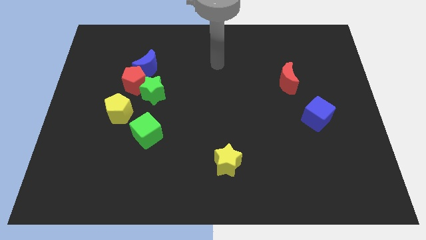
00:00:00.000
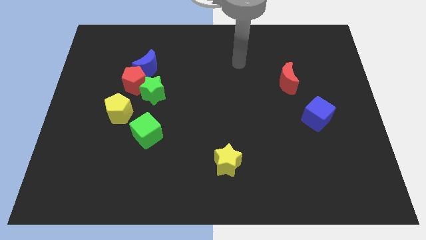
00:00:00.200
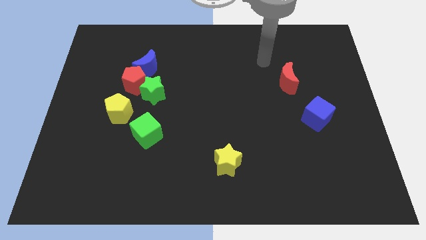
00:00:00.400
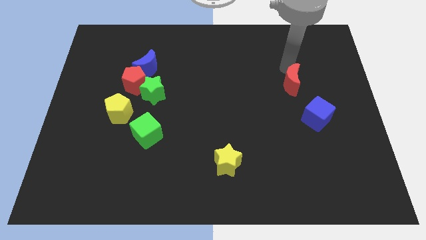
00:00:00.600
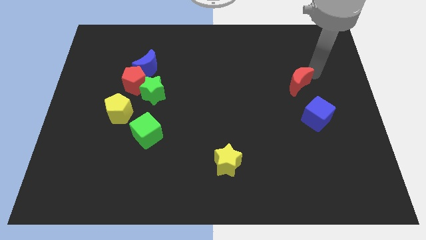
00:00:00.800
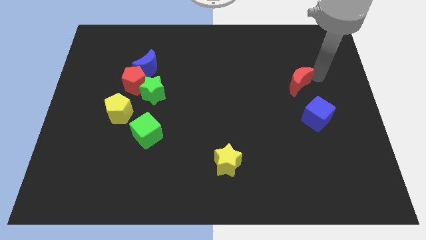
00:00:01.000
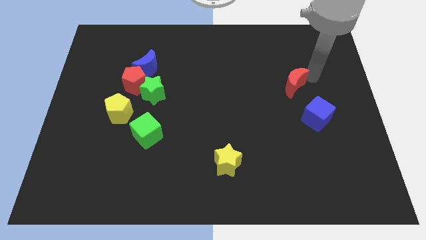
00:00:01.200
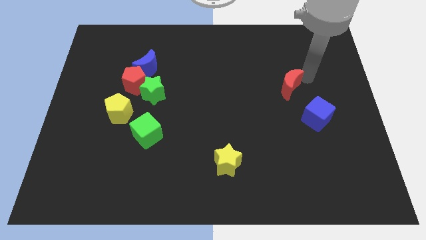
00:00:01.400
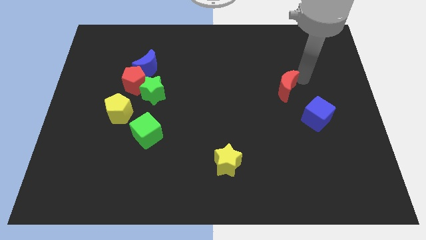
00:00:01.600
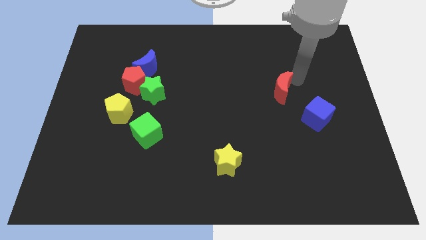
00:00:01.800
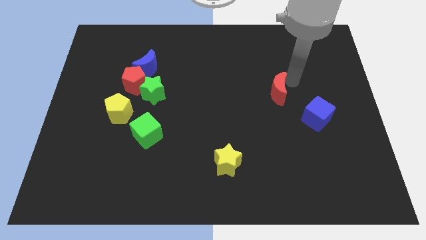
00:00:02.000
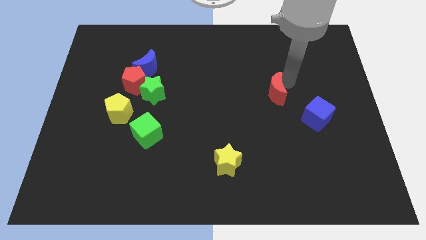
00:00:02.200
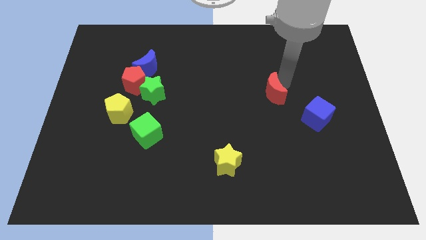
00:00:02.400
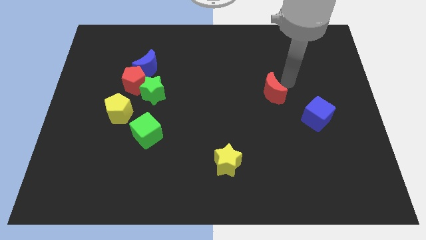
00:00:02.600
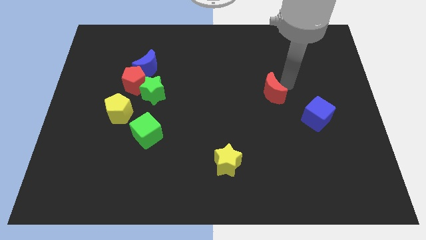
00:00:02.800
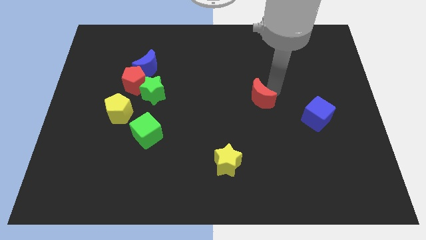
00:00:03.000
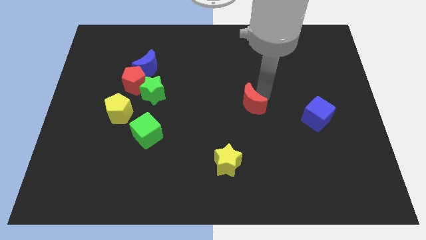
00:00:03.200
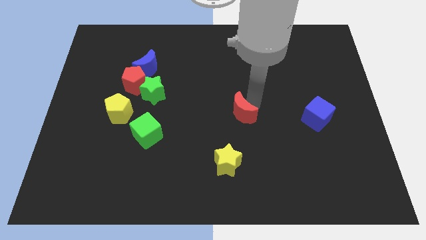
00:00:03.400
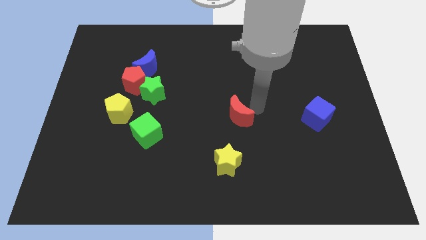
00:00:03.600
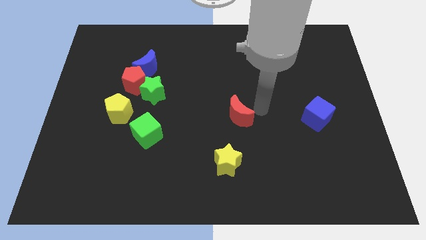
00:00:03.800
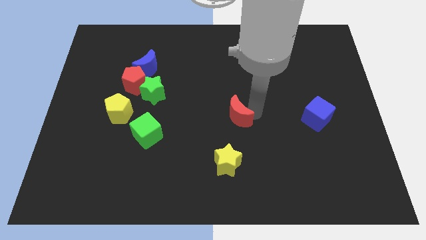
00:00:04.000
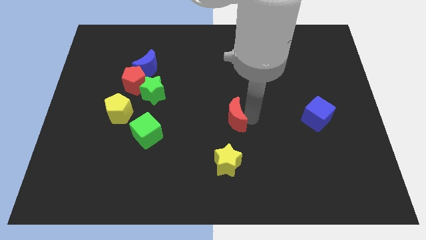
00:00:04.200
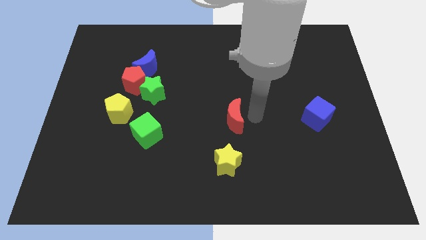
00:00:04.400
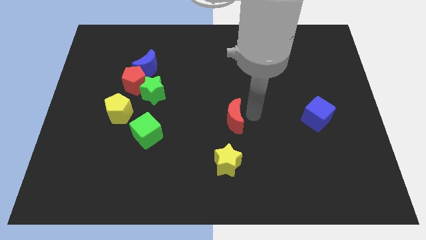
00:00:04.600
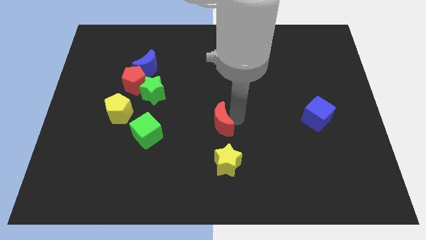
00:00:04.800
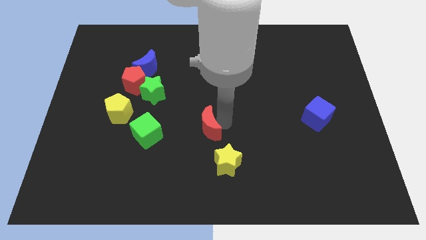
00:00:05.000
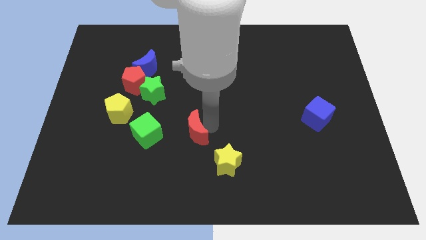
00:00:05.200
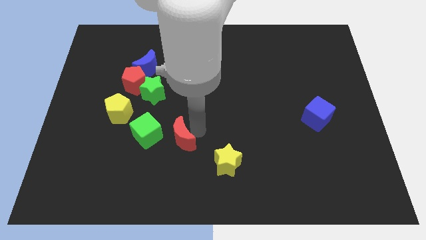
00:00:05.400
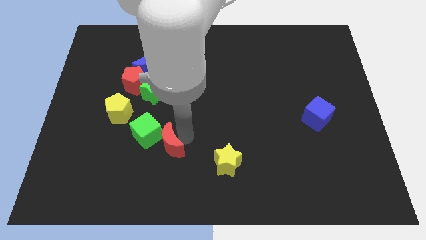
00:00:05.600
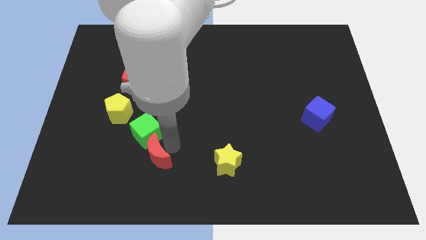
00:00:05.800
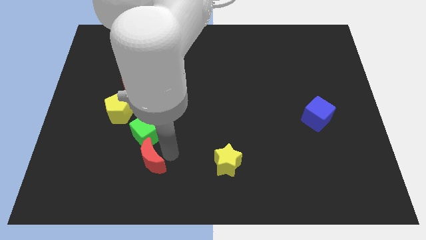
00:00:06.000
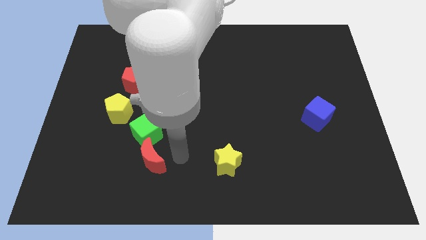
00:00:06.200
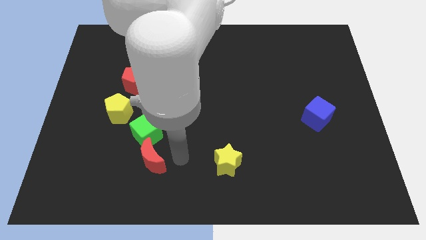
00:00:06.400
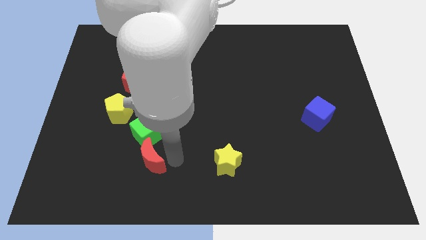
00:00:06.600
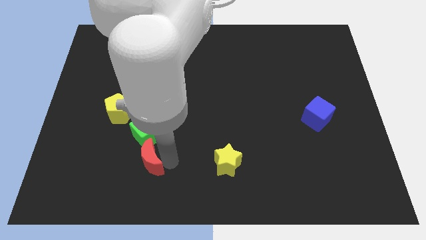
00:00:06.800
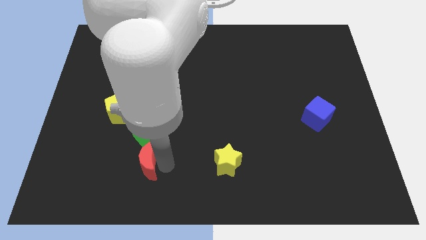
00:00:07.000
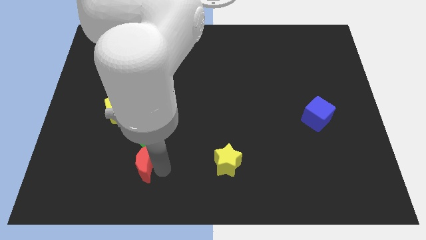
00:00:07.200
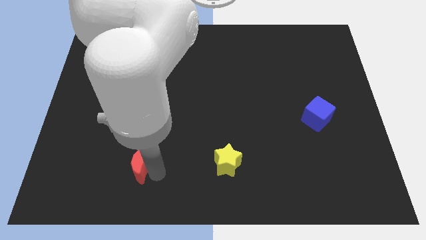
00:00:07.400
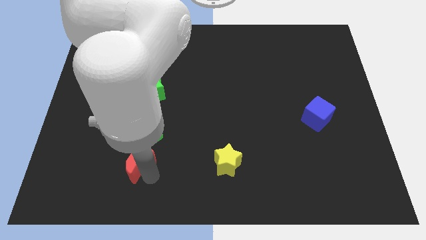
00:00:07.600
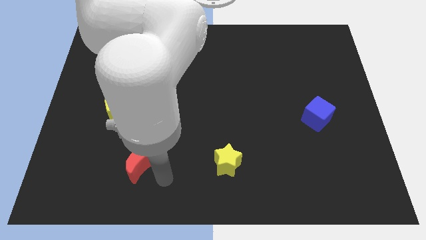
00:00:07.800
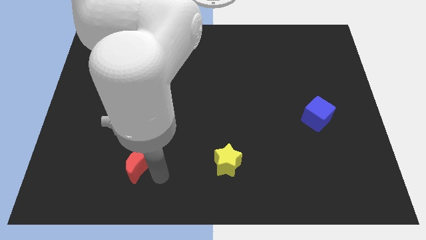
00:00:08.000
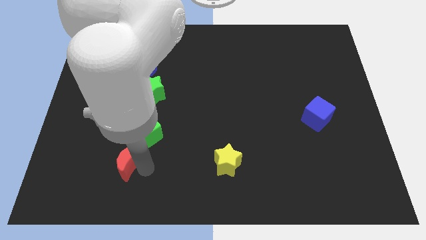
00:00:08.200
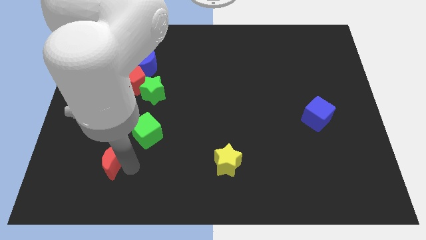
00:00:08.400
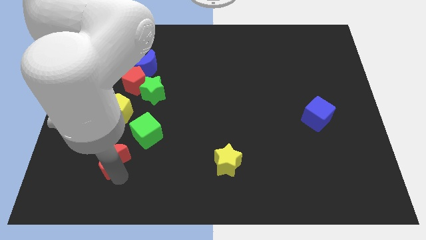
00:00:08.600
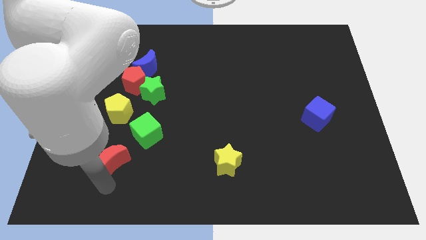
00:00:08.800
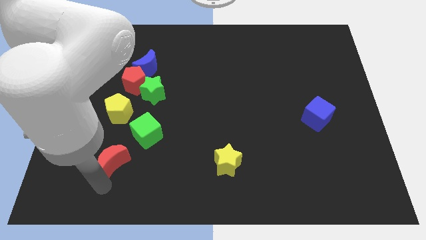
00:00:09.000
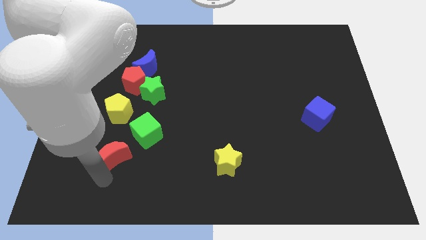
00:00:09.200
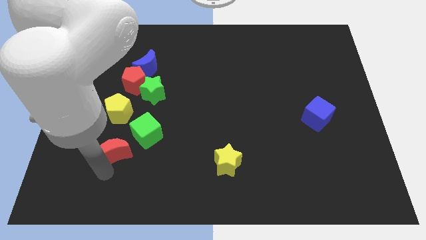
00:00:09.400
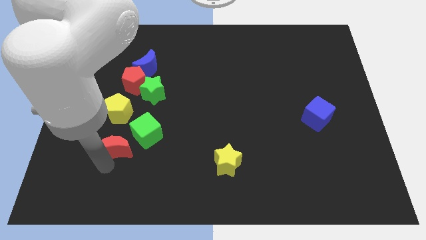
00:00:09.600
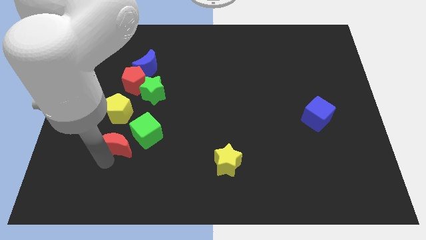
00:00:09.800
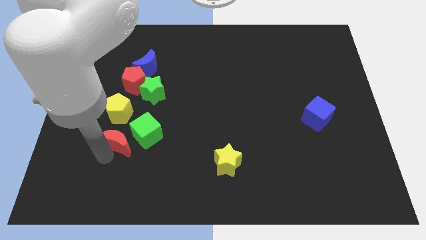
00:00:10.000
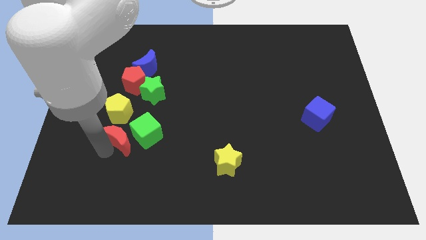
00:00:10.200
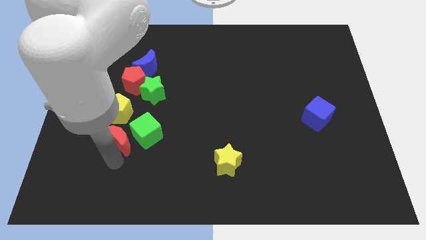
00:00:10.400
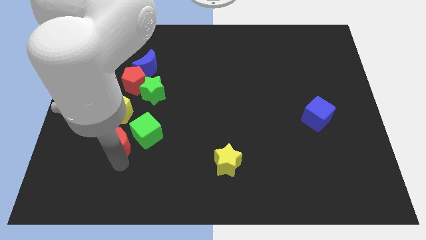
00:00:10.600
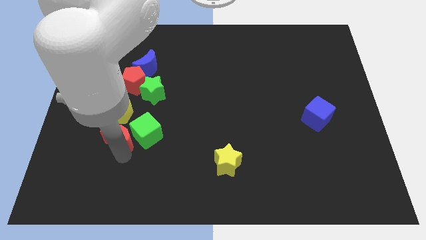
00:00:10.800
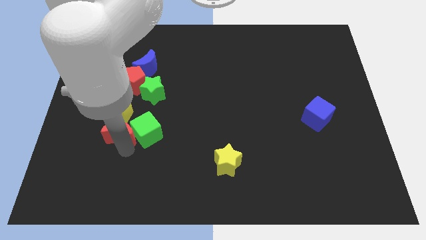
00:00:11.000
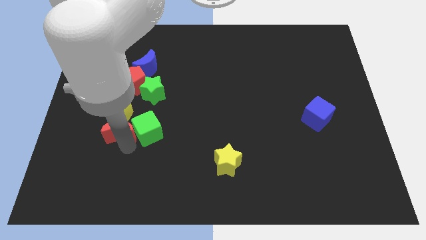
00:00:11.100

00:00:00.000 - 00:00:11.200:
put the red moon next to the yellow pentagon

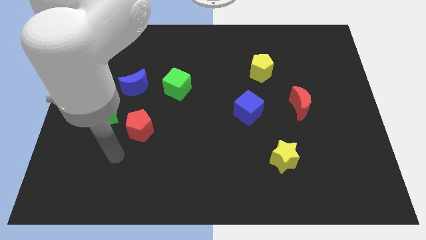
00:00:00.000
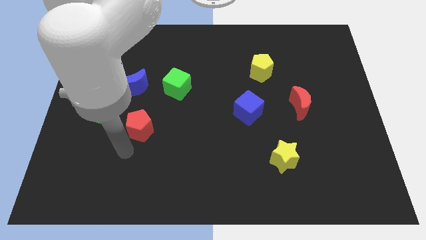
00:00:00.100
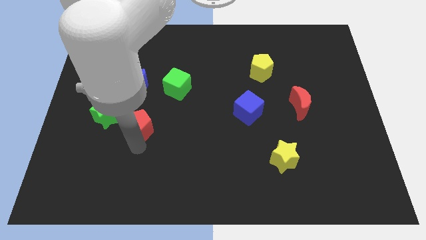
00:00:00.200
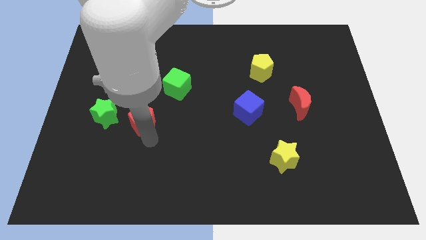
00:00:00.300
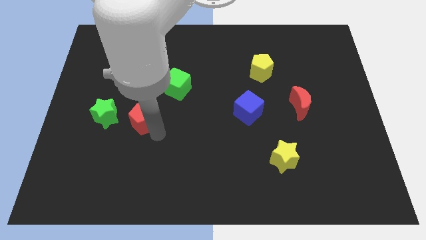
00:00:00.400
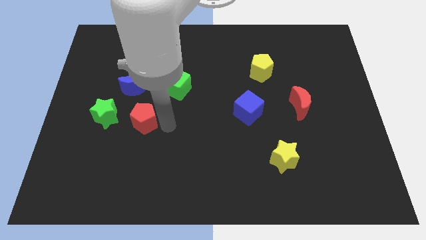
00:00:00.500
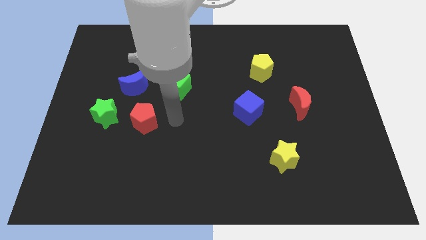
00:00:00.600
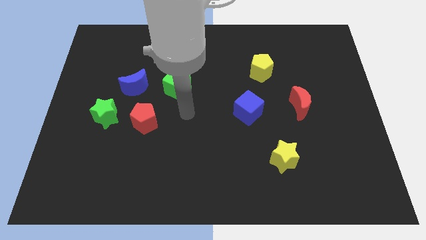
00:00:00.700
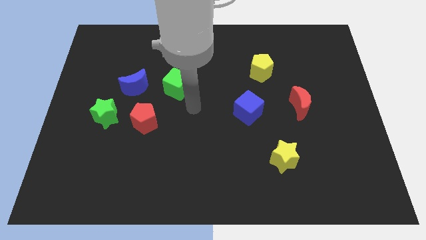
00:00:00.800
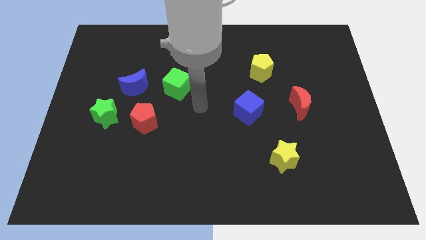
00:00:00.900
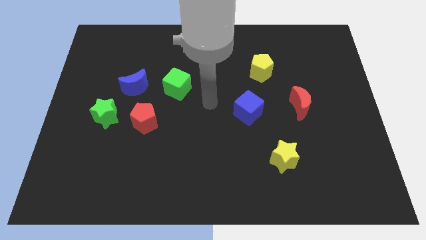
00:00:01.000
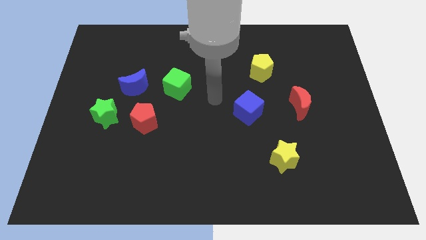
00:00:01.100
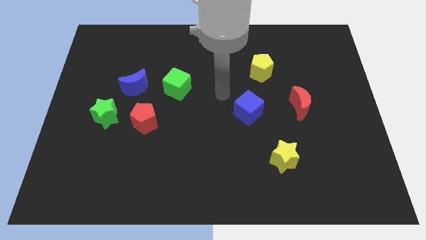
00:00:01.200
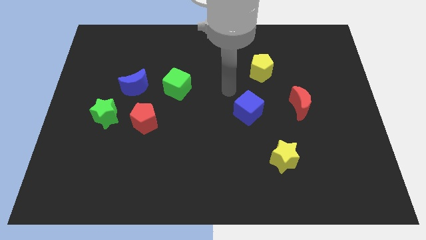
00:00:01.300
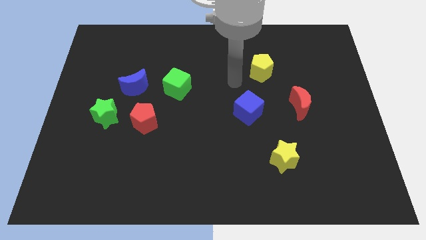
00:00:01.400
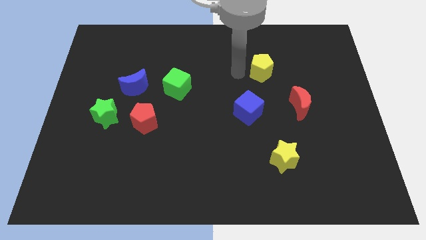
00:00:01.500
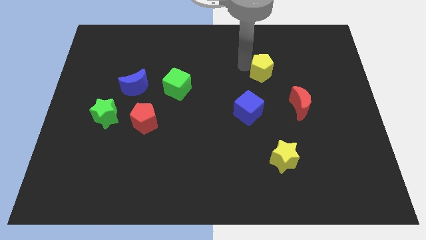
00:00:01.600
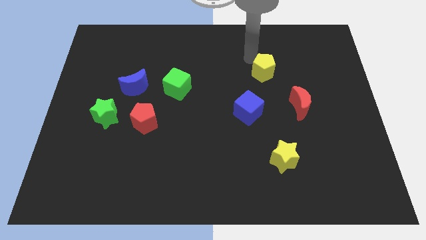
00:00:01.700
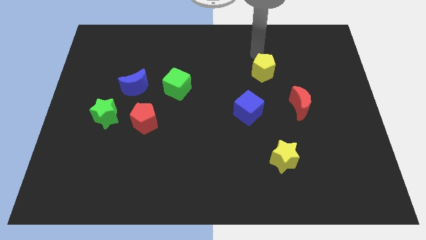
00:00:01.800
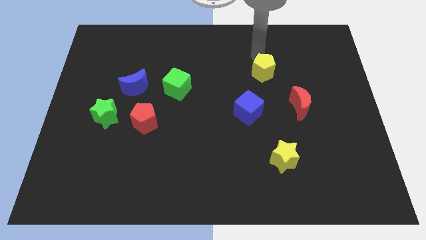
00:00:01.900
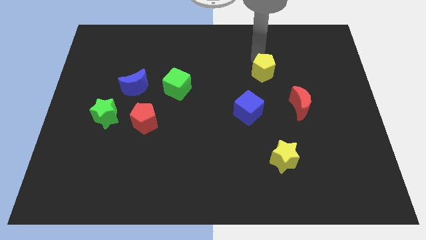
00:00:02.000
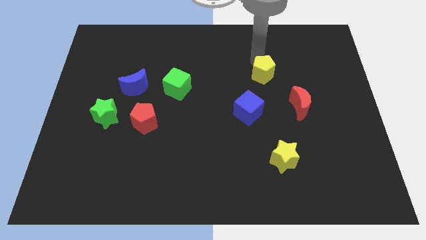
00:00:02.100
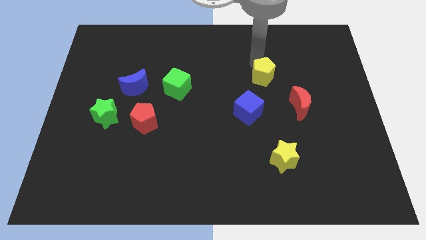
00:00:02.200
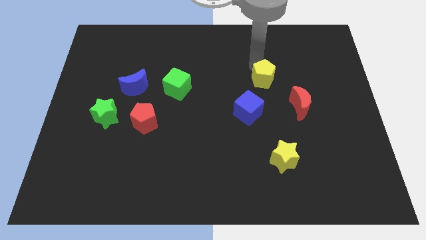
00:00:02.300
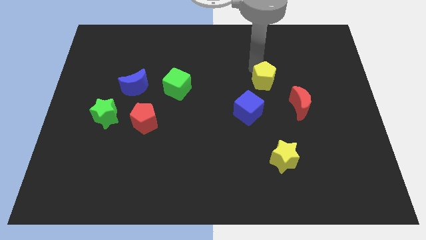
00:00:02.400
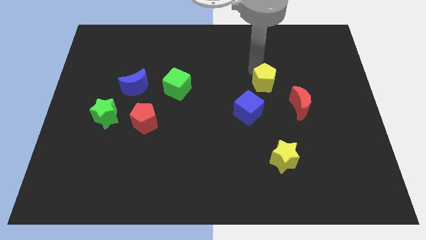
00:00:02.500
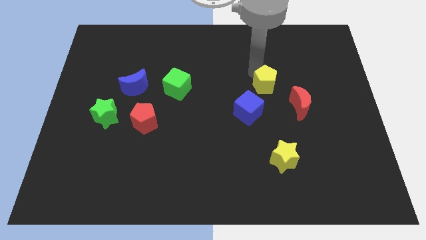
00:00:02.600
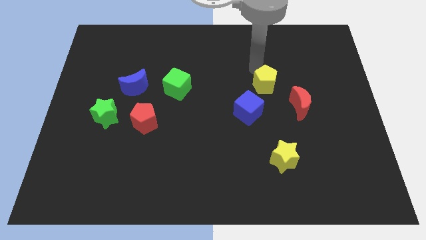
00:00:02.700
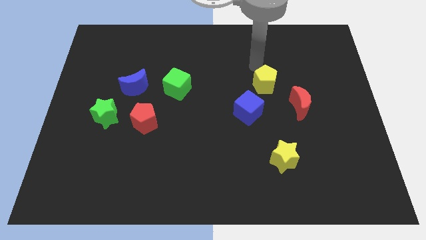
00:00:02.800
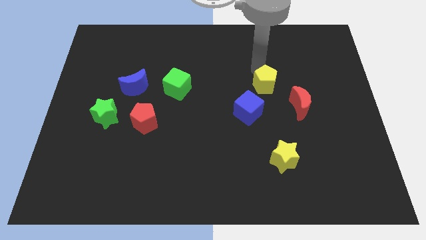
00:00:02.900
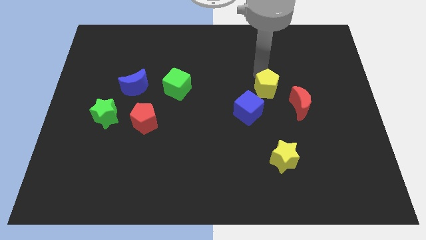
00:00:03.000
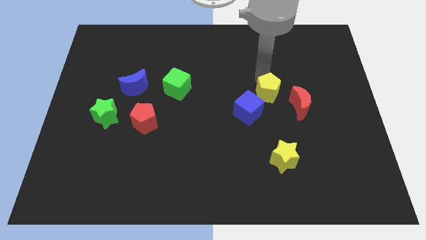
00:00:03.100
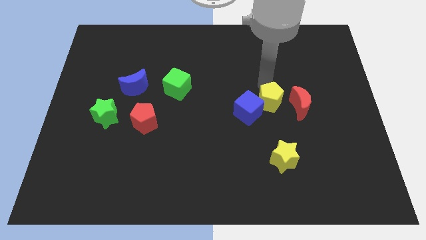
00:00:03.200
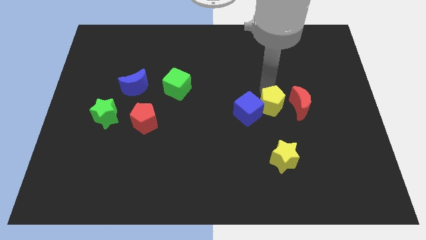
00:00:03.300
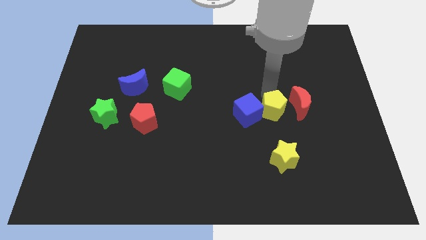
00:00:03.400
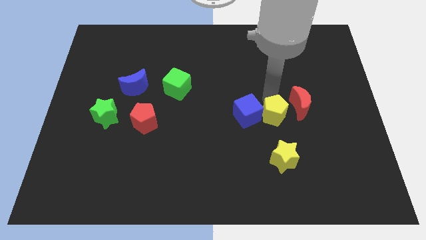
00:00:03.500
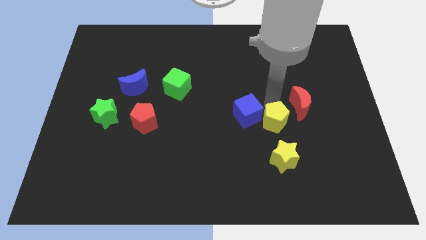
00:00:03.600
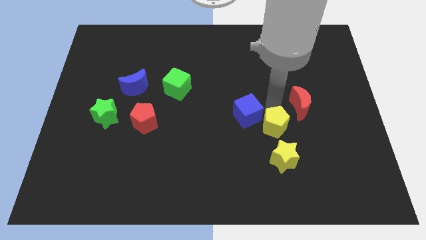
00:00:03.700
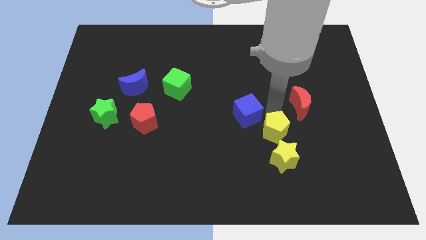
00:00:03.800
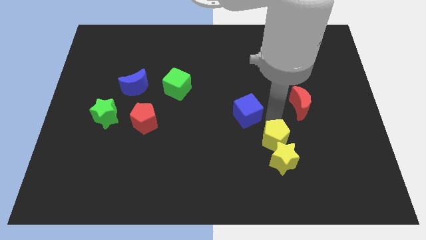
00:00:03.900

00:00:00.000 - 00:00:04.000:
move the yellow pentagon next to the yellow star
